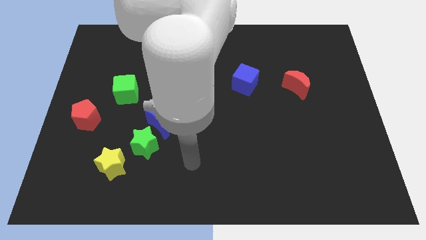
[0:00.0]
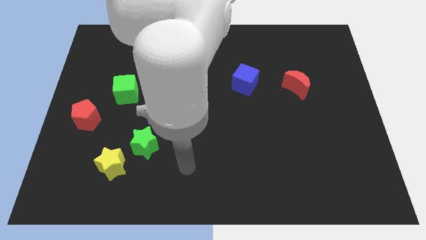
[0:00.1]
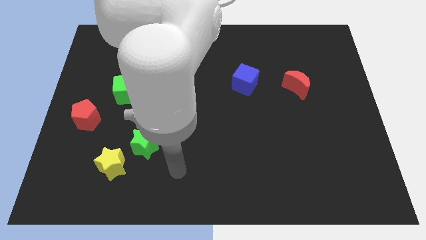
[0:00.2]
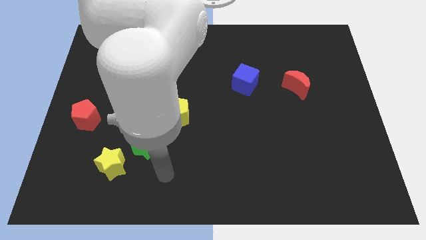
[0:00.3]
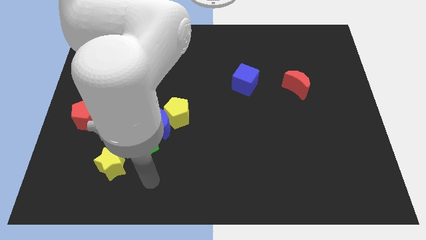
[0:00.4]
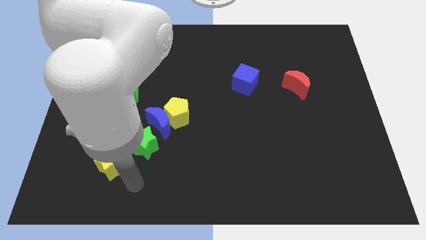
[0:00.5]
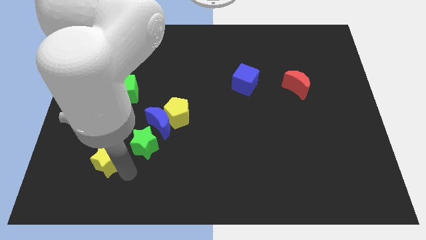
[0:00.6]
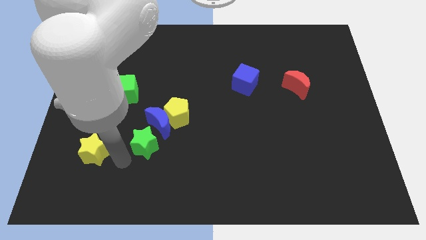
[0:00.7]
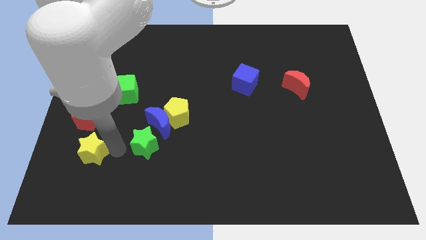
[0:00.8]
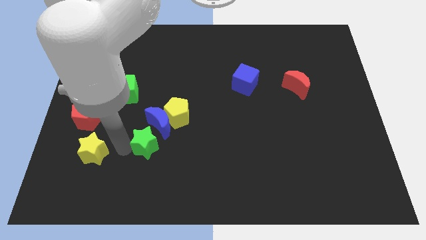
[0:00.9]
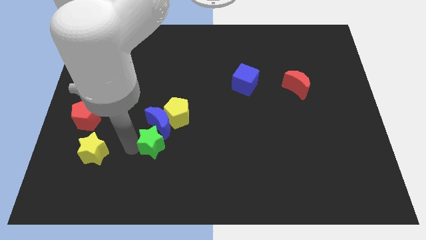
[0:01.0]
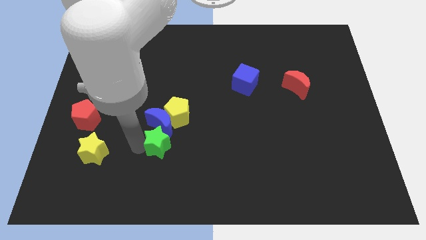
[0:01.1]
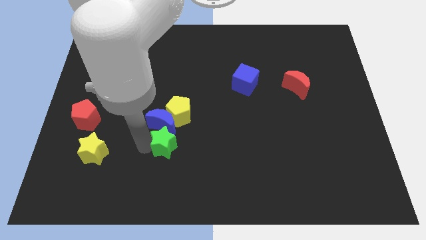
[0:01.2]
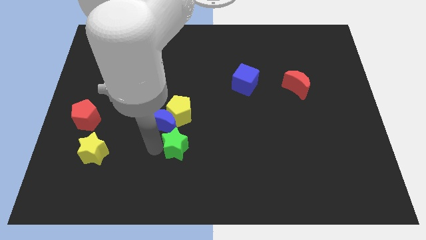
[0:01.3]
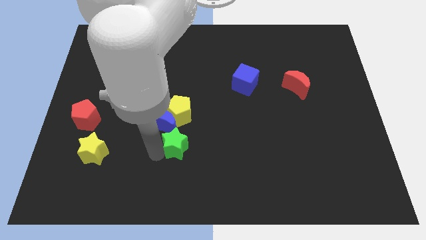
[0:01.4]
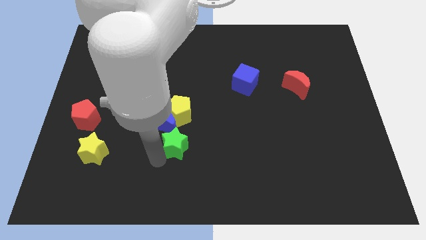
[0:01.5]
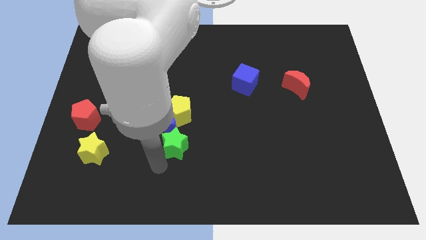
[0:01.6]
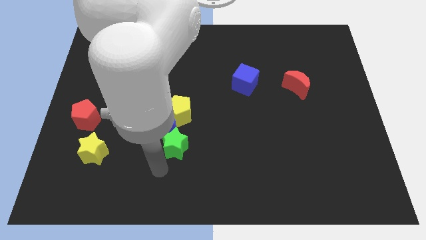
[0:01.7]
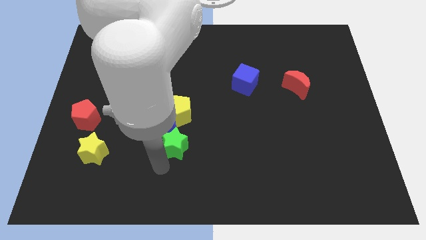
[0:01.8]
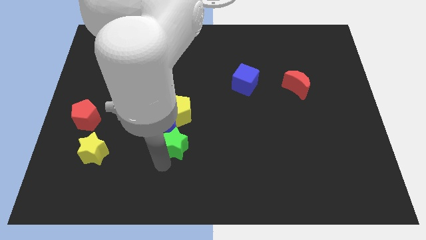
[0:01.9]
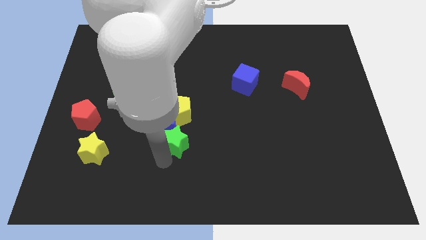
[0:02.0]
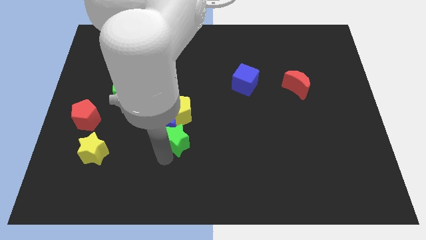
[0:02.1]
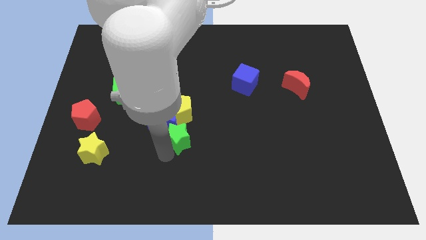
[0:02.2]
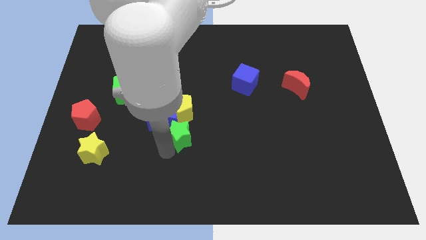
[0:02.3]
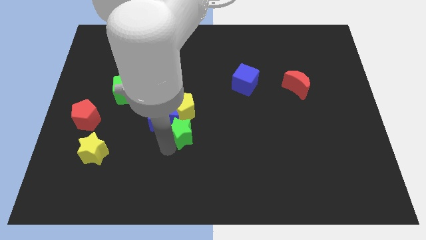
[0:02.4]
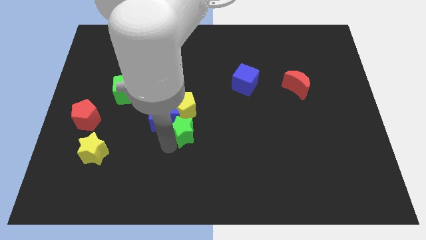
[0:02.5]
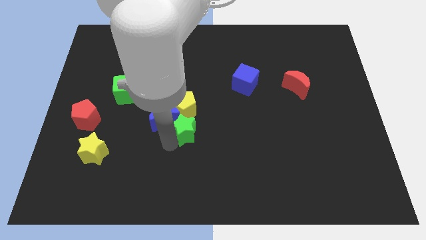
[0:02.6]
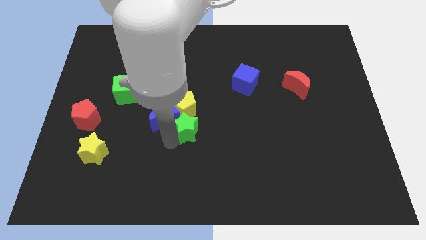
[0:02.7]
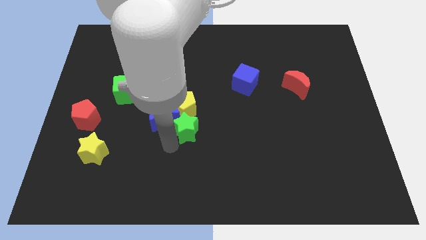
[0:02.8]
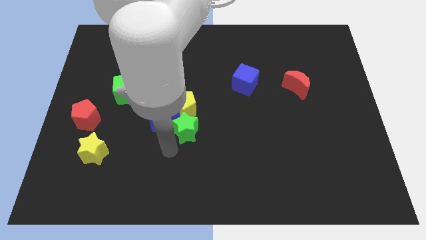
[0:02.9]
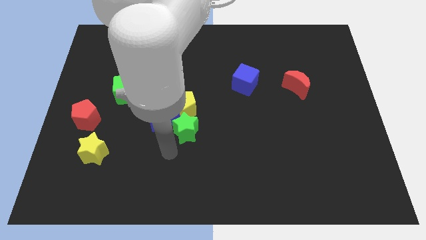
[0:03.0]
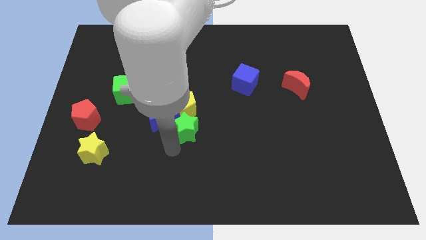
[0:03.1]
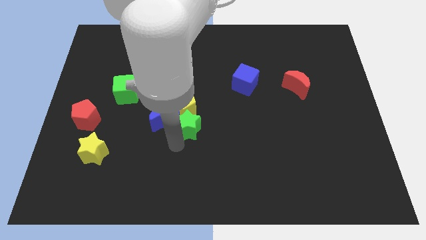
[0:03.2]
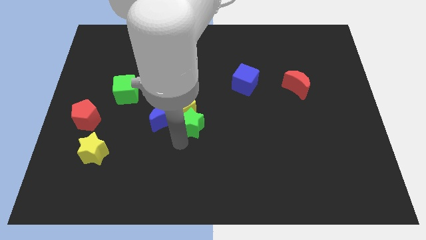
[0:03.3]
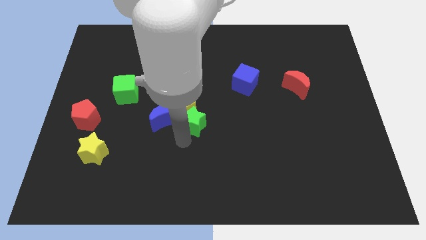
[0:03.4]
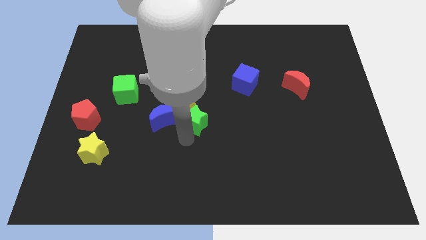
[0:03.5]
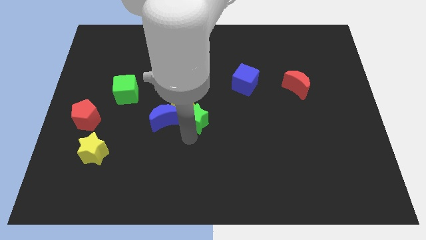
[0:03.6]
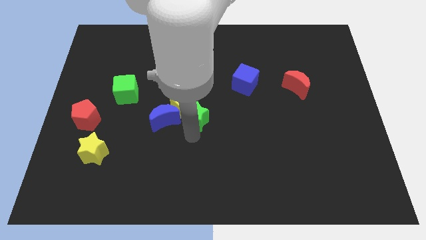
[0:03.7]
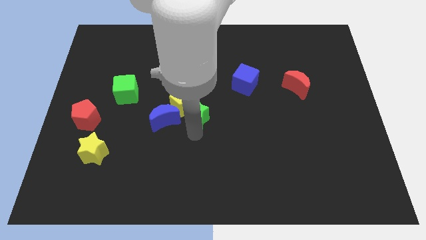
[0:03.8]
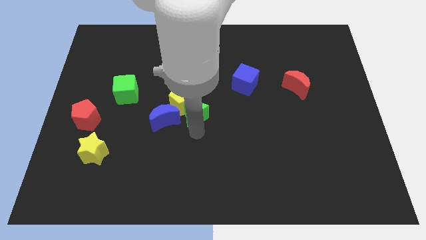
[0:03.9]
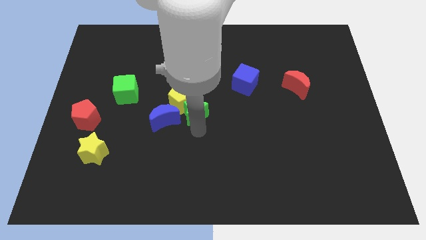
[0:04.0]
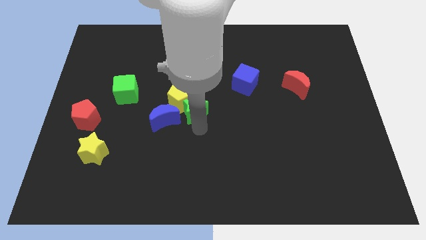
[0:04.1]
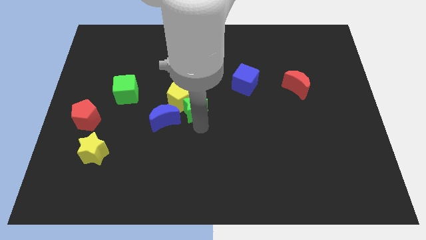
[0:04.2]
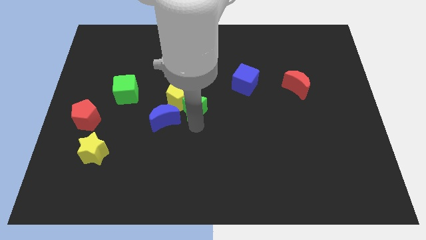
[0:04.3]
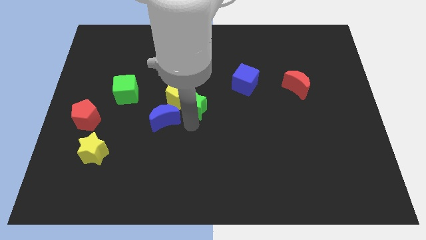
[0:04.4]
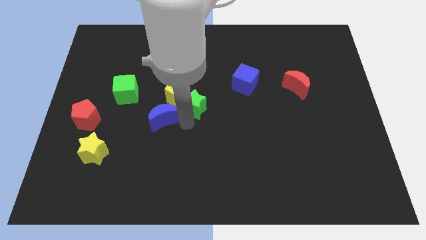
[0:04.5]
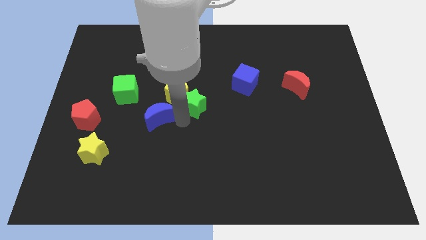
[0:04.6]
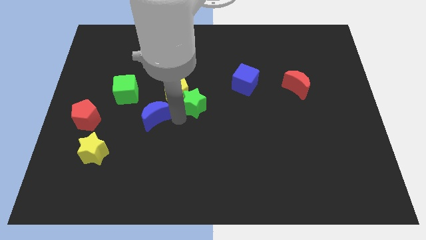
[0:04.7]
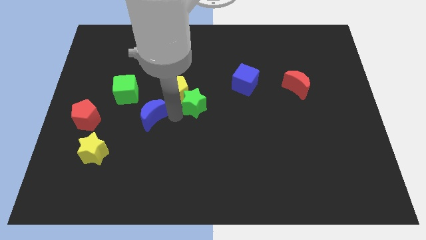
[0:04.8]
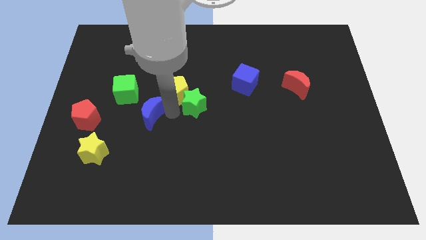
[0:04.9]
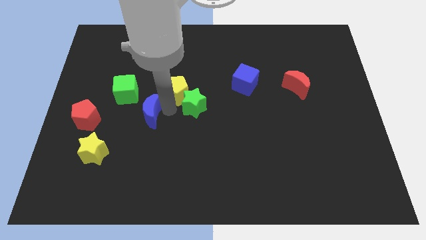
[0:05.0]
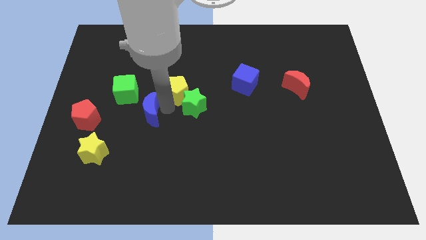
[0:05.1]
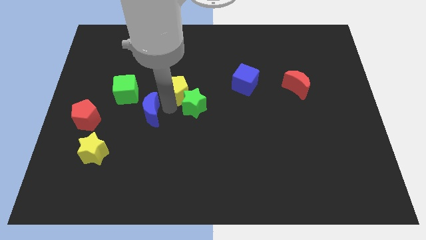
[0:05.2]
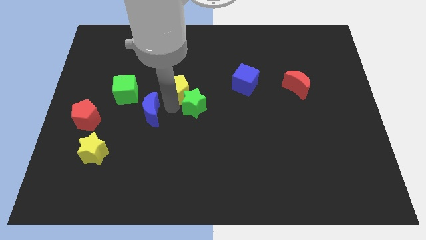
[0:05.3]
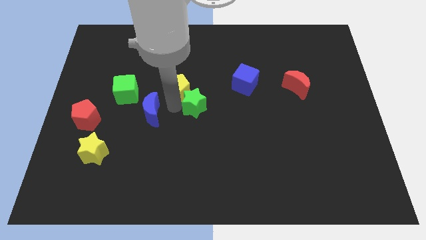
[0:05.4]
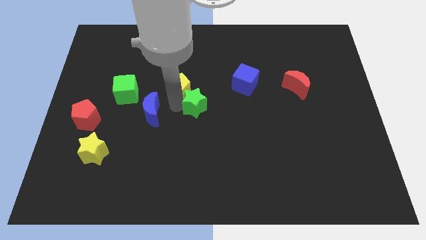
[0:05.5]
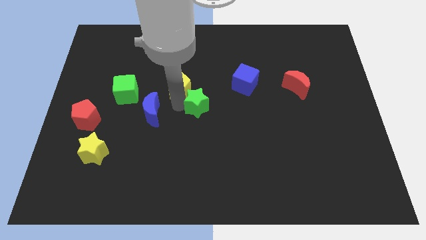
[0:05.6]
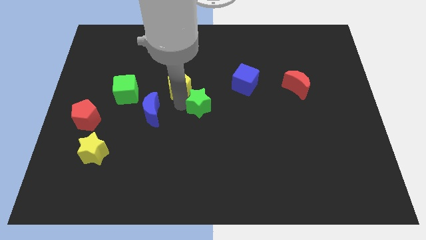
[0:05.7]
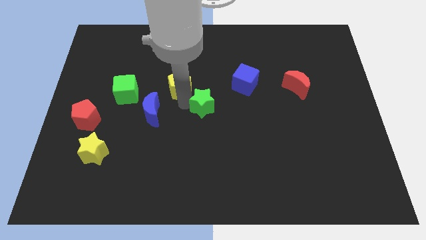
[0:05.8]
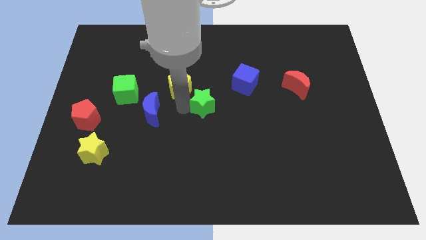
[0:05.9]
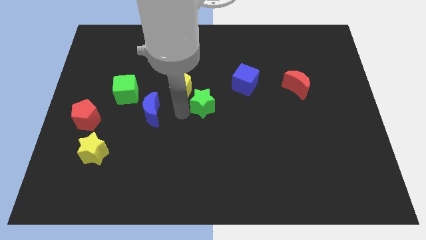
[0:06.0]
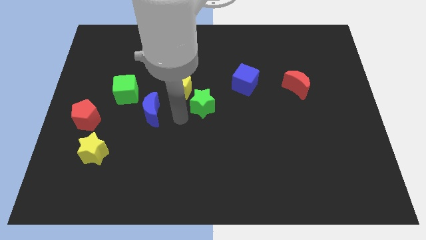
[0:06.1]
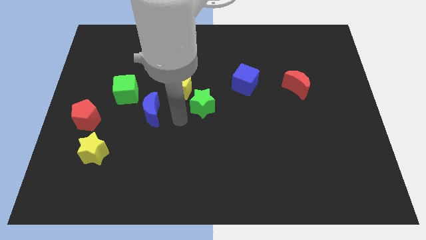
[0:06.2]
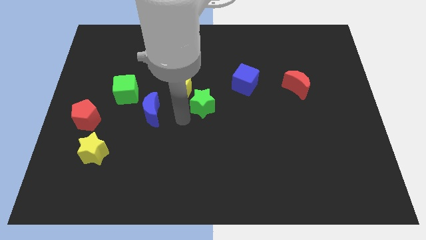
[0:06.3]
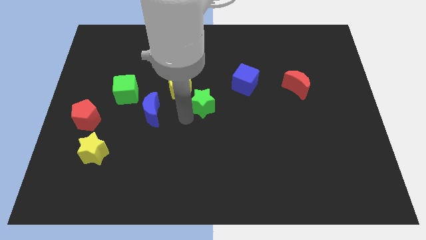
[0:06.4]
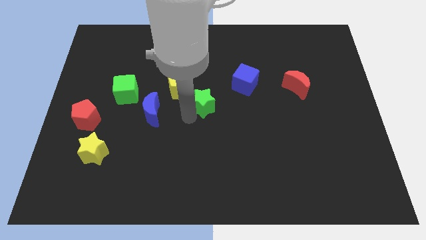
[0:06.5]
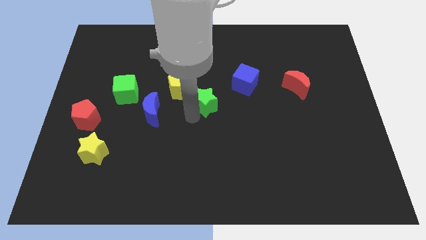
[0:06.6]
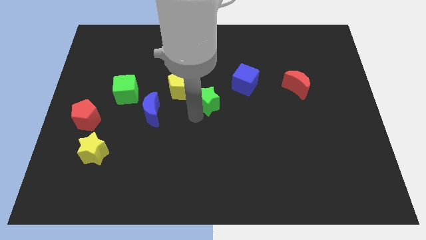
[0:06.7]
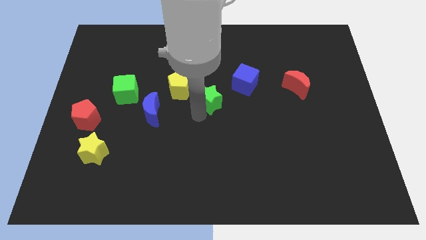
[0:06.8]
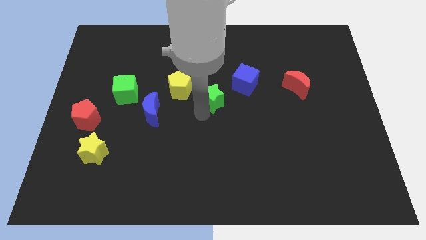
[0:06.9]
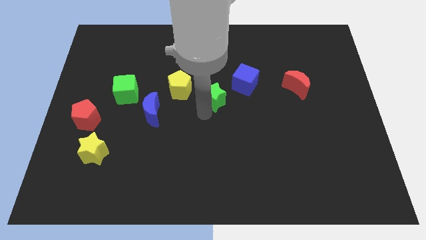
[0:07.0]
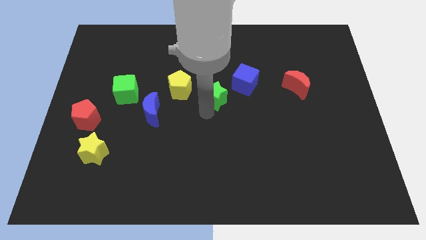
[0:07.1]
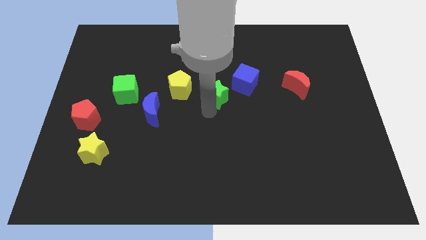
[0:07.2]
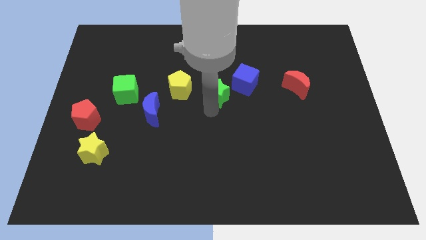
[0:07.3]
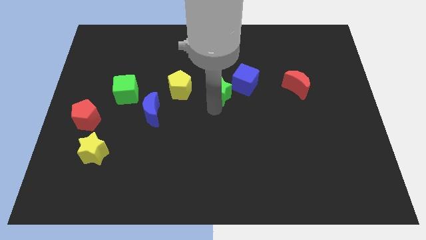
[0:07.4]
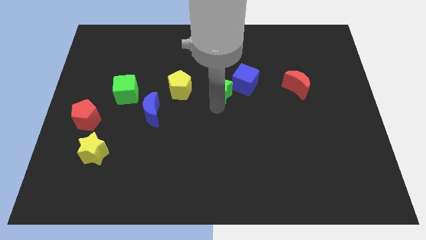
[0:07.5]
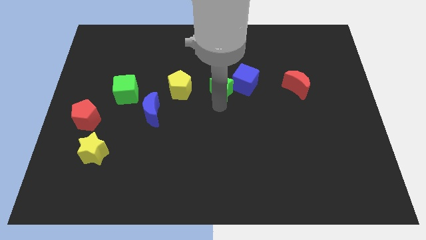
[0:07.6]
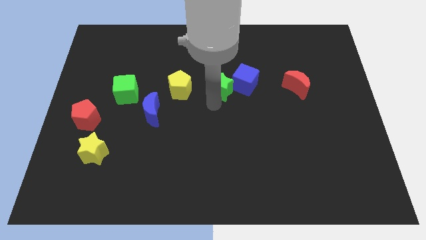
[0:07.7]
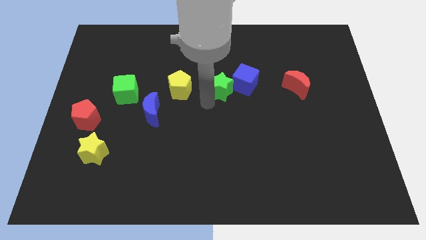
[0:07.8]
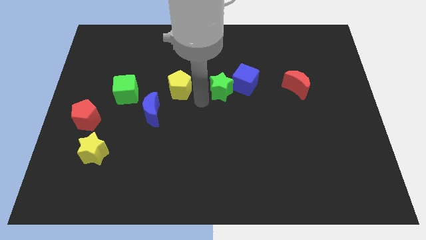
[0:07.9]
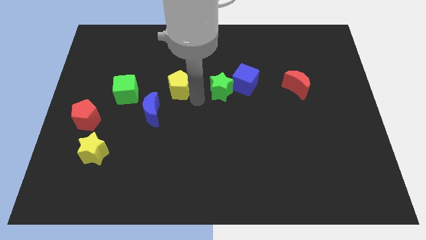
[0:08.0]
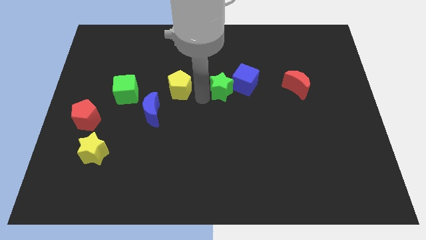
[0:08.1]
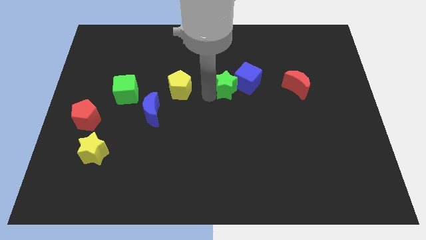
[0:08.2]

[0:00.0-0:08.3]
move the green star next to the blue cube
